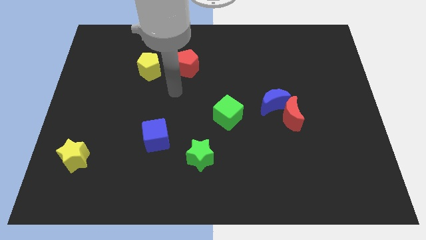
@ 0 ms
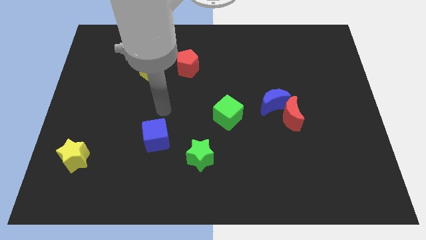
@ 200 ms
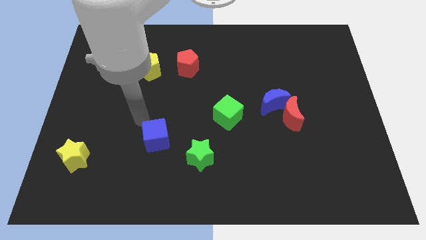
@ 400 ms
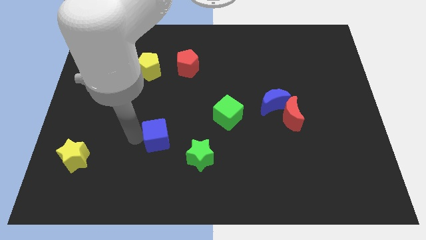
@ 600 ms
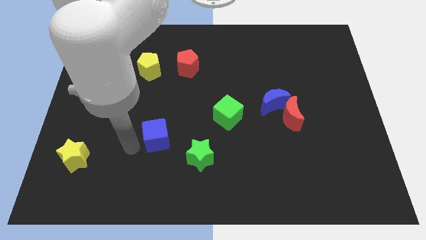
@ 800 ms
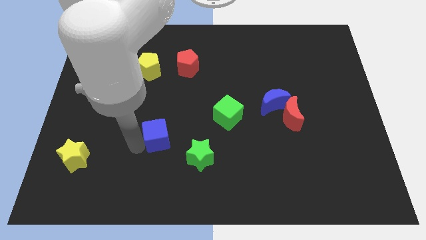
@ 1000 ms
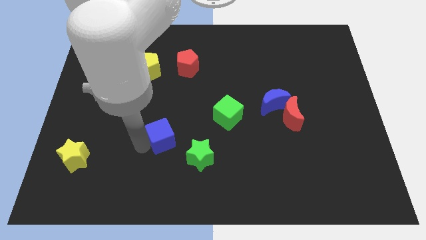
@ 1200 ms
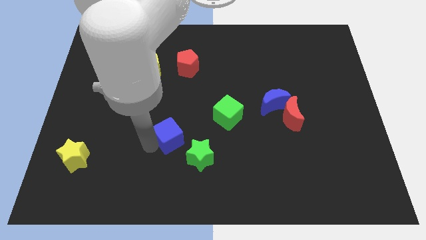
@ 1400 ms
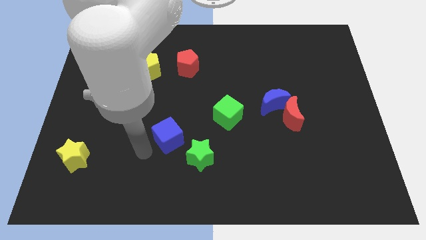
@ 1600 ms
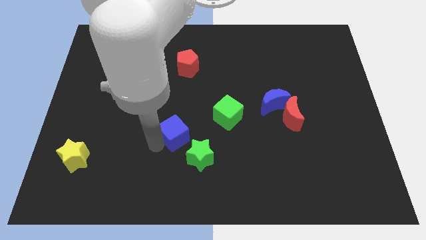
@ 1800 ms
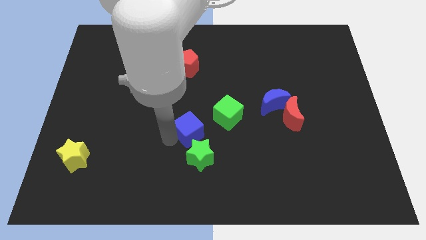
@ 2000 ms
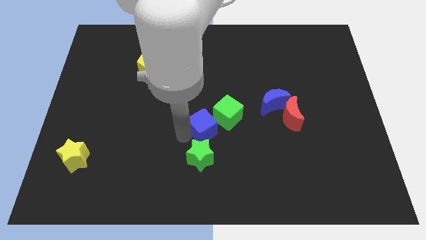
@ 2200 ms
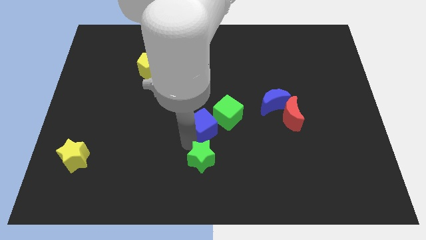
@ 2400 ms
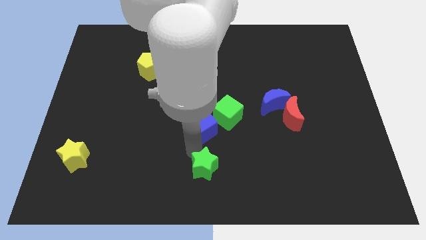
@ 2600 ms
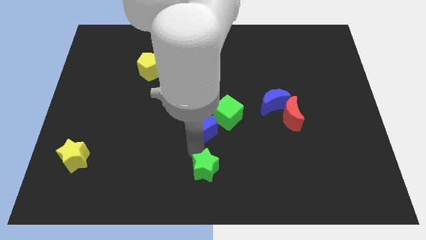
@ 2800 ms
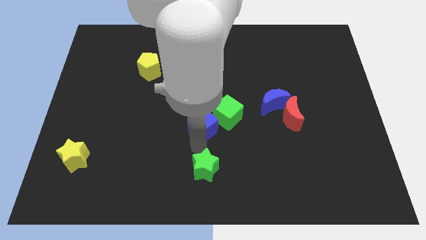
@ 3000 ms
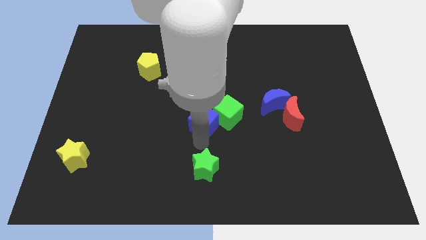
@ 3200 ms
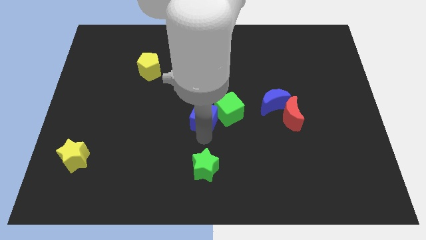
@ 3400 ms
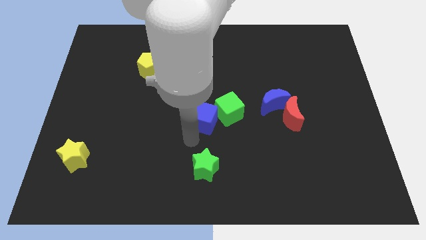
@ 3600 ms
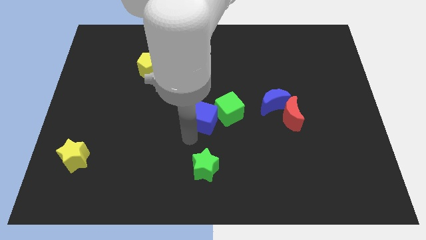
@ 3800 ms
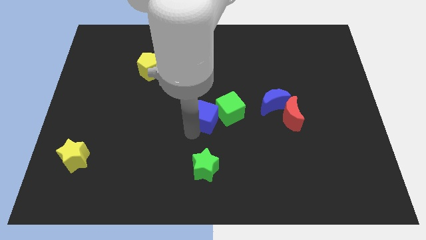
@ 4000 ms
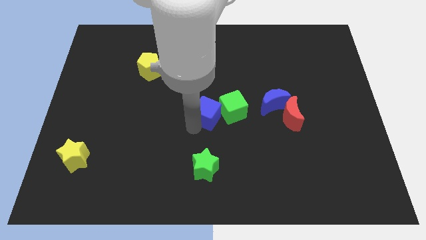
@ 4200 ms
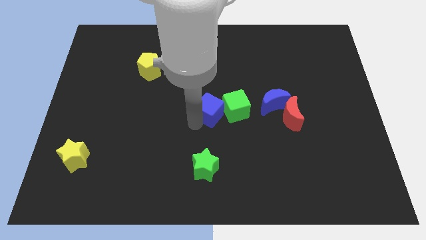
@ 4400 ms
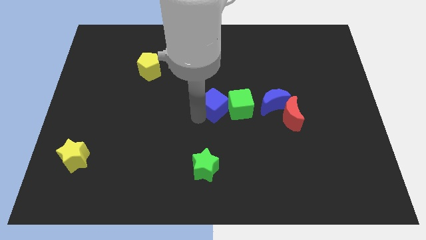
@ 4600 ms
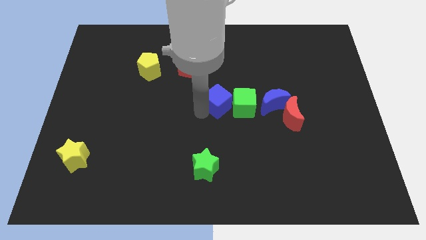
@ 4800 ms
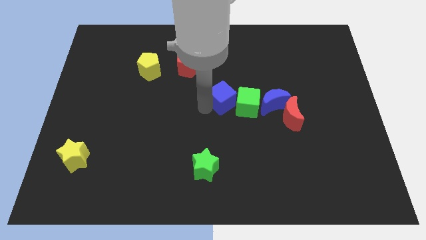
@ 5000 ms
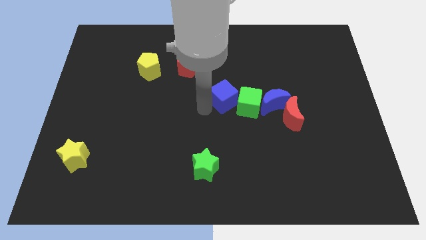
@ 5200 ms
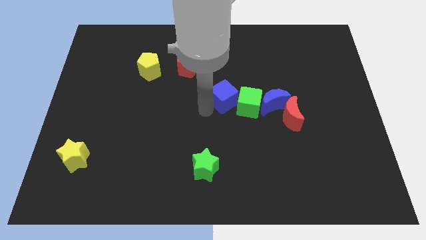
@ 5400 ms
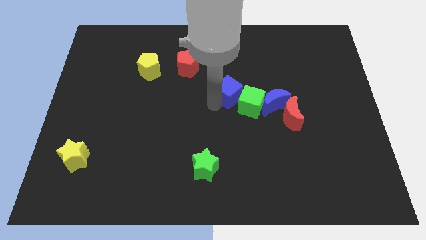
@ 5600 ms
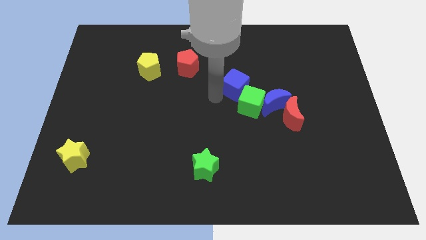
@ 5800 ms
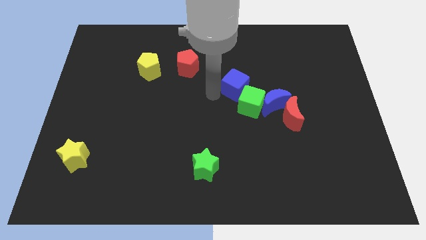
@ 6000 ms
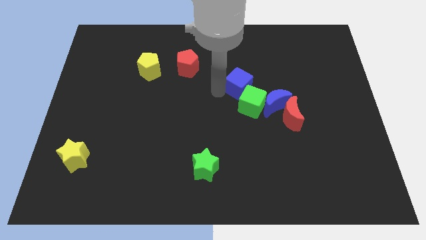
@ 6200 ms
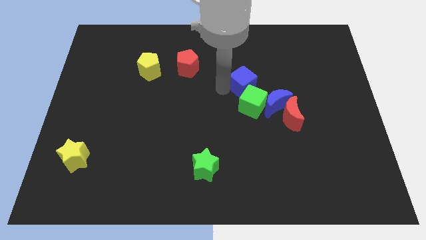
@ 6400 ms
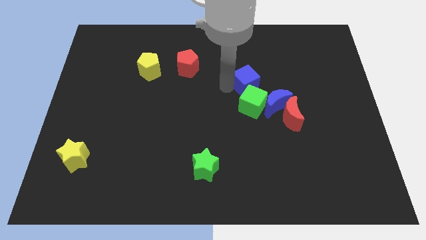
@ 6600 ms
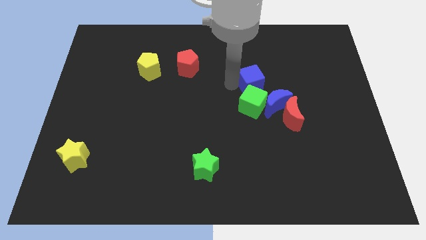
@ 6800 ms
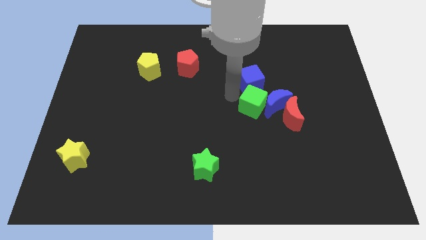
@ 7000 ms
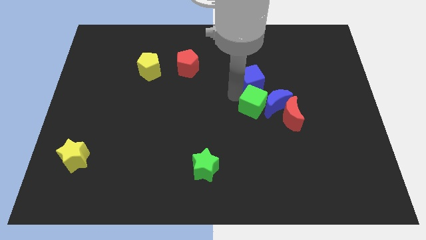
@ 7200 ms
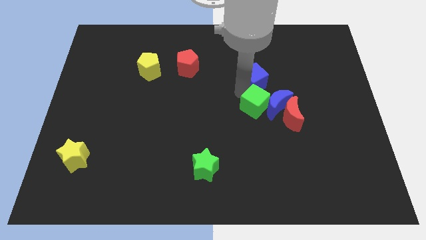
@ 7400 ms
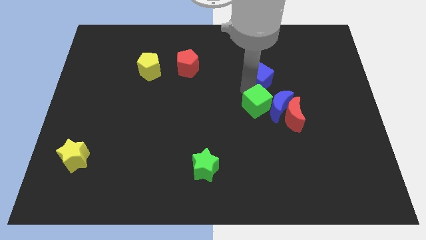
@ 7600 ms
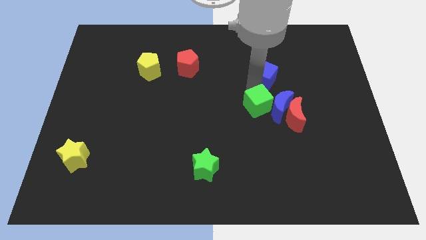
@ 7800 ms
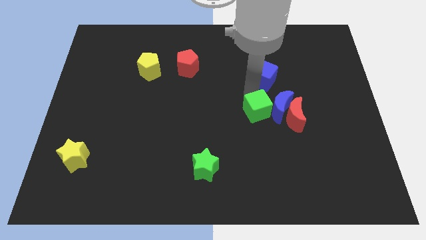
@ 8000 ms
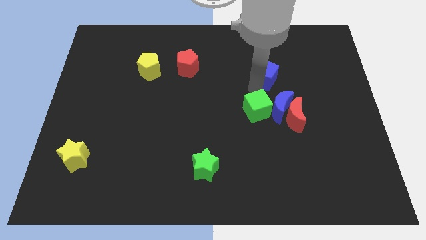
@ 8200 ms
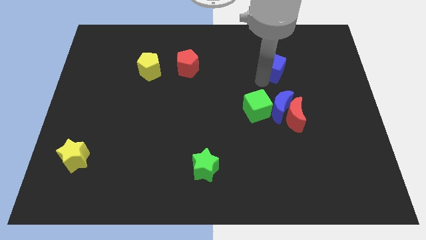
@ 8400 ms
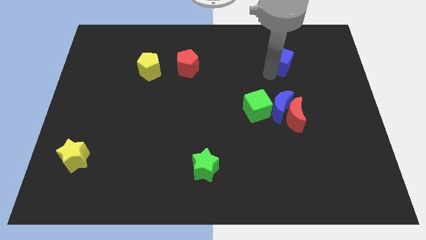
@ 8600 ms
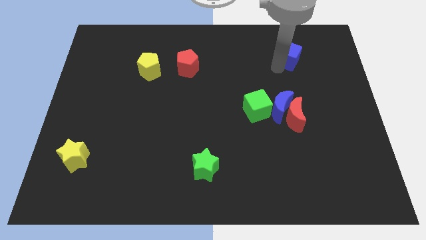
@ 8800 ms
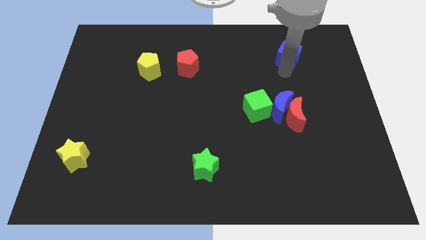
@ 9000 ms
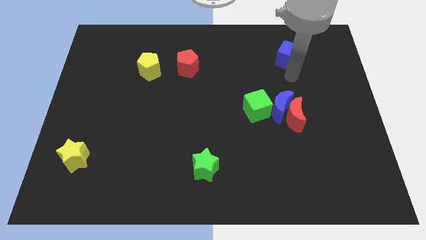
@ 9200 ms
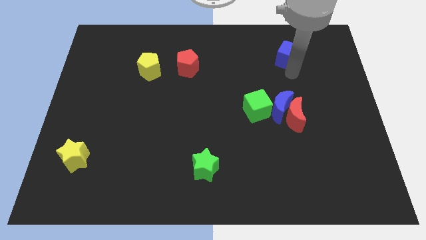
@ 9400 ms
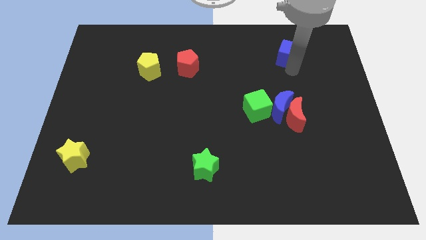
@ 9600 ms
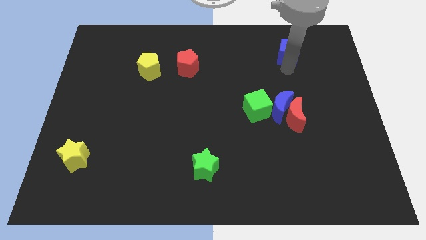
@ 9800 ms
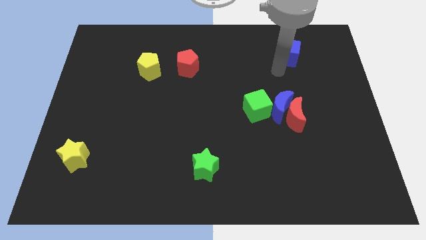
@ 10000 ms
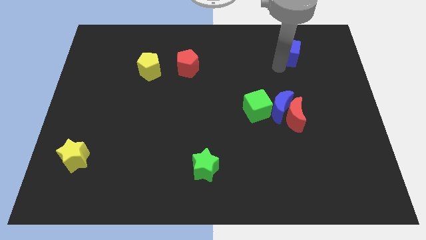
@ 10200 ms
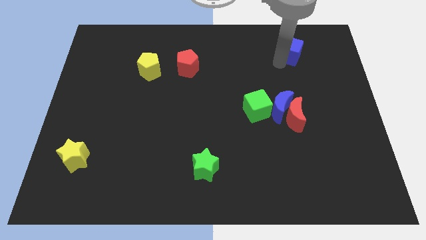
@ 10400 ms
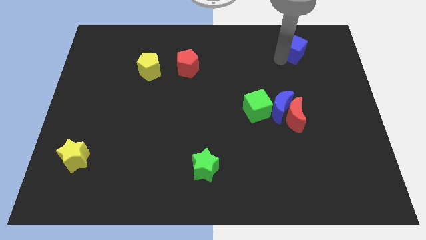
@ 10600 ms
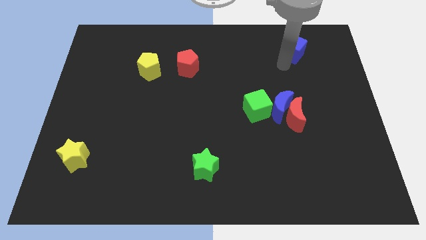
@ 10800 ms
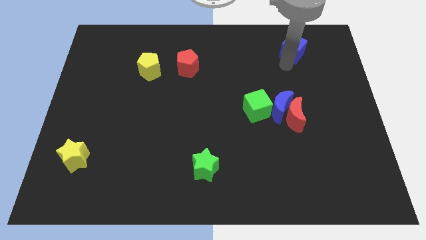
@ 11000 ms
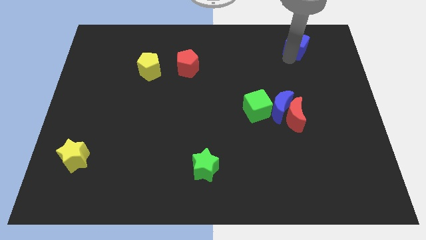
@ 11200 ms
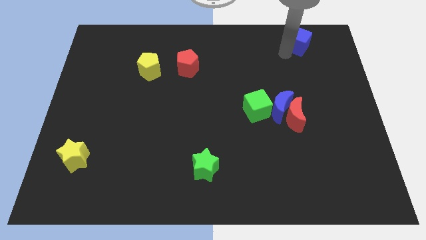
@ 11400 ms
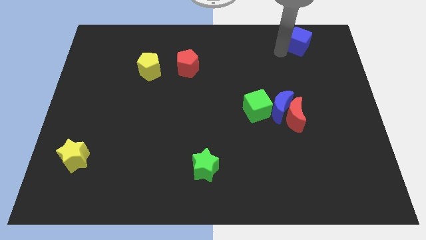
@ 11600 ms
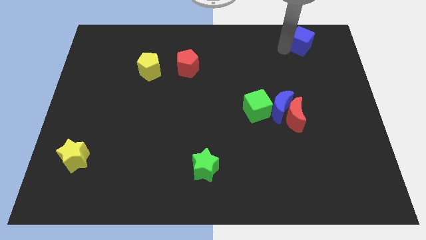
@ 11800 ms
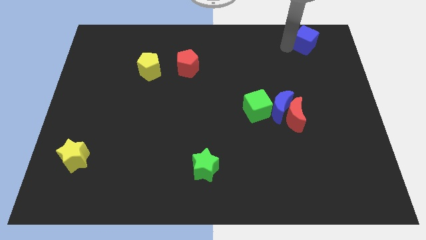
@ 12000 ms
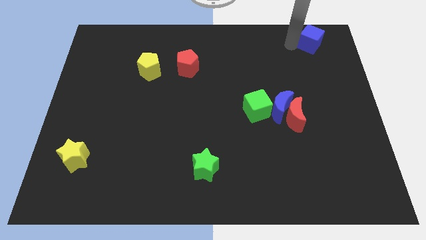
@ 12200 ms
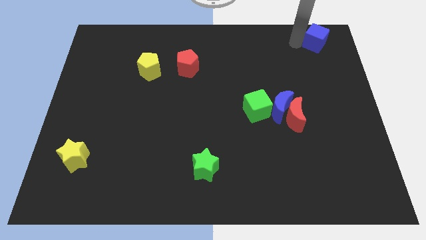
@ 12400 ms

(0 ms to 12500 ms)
push the blue cube to the upper right corner
